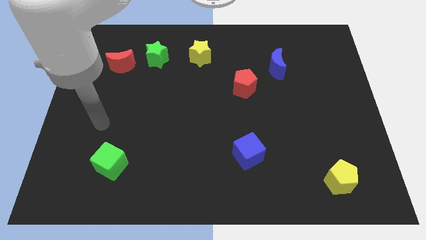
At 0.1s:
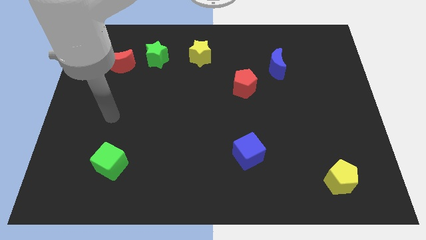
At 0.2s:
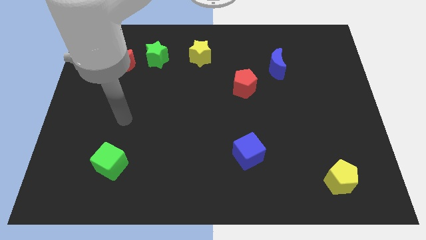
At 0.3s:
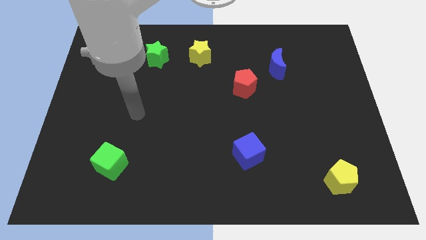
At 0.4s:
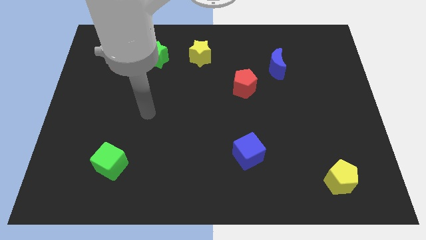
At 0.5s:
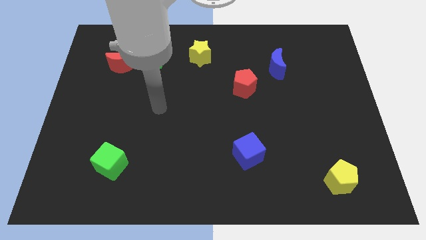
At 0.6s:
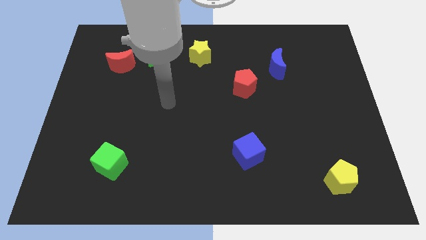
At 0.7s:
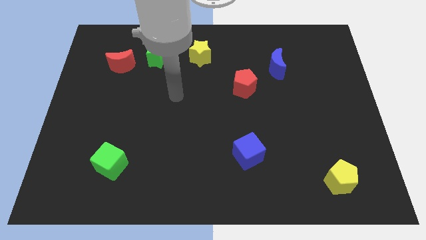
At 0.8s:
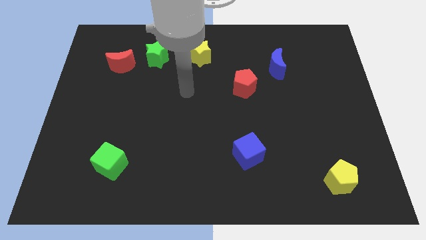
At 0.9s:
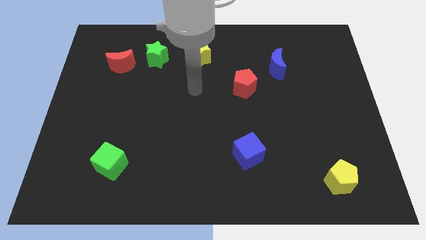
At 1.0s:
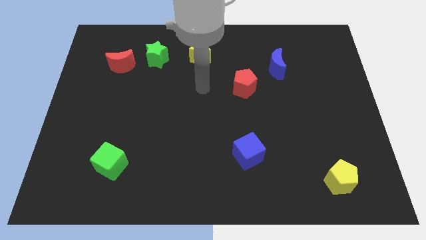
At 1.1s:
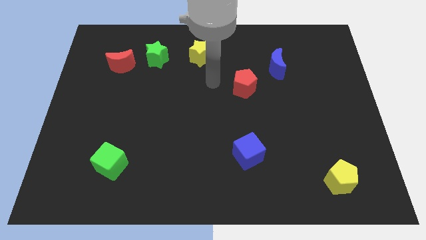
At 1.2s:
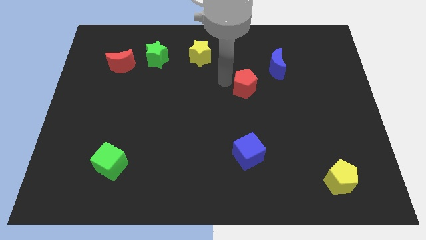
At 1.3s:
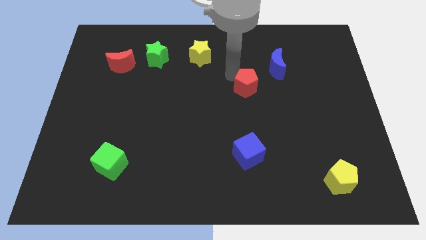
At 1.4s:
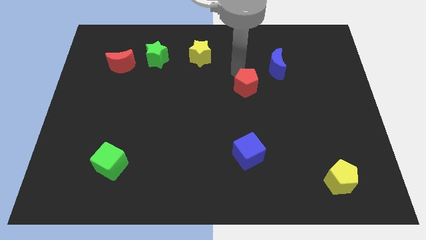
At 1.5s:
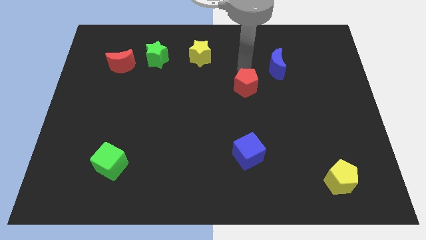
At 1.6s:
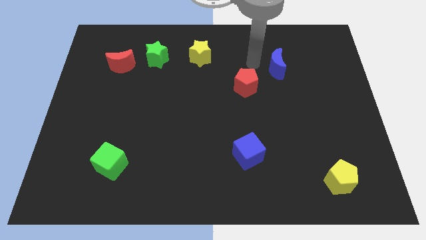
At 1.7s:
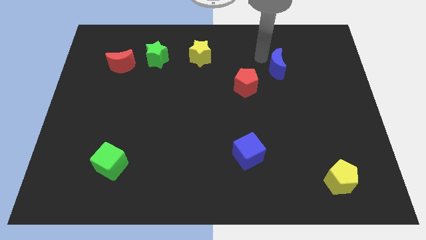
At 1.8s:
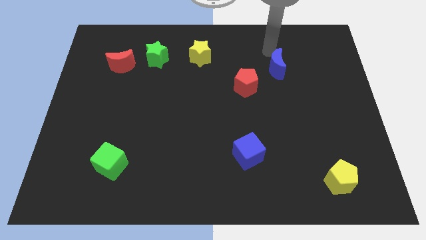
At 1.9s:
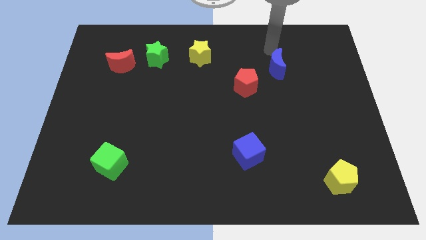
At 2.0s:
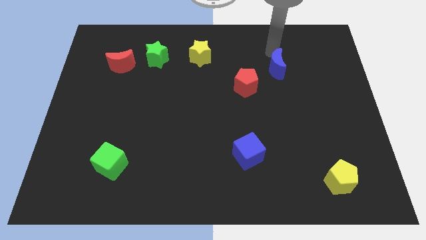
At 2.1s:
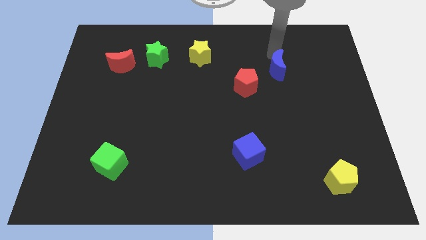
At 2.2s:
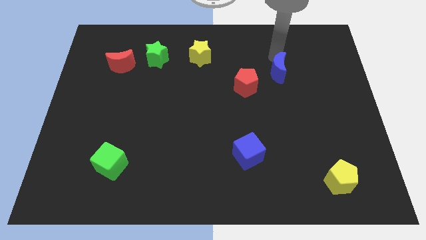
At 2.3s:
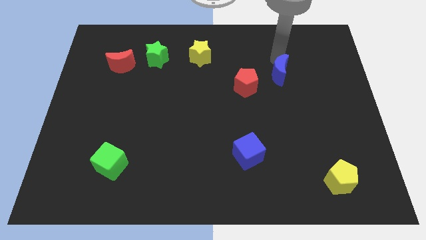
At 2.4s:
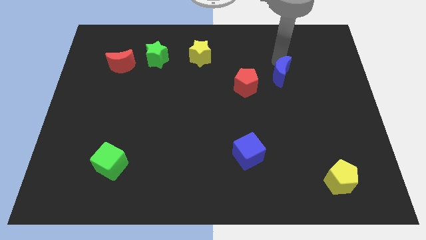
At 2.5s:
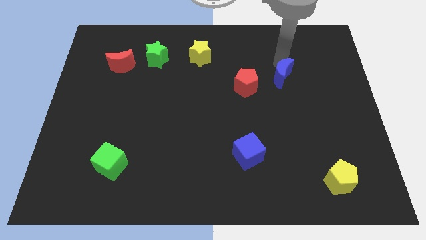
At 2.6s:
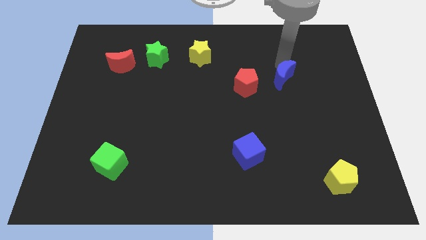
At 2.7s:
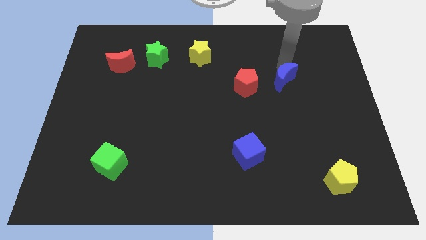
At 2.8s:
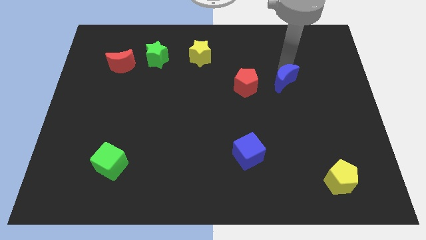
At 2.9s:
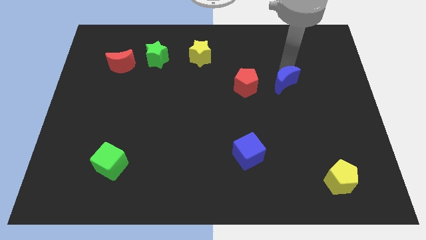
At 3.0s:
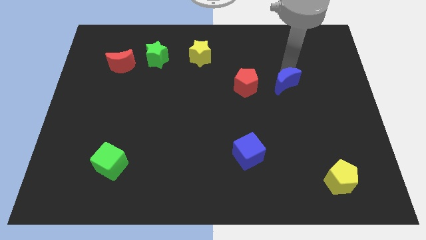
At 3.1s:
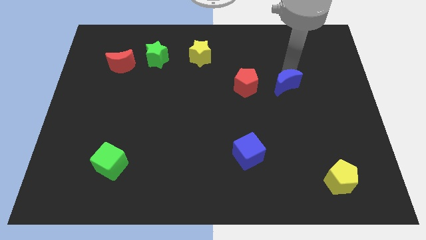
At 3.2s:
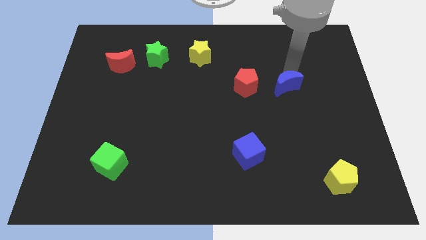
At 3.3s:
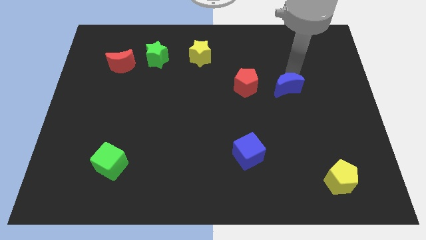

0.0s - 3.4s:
move the blue moon down a bit

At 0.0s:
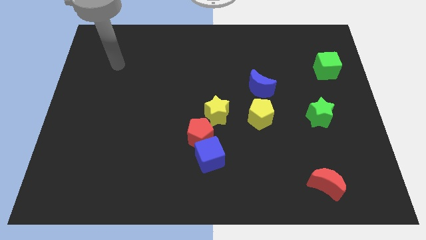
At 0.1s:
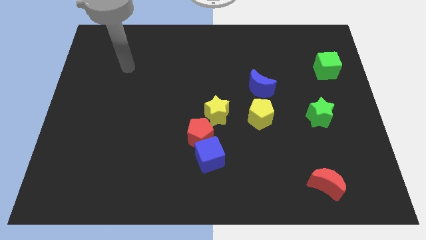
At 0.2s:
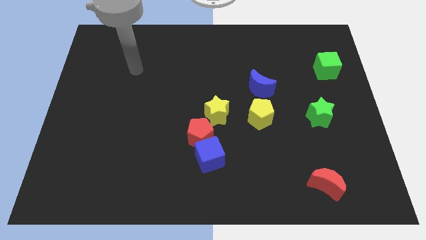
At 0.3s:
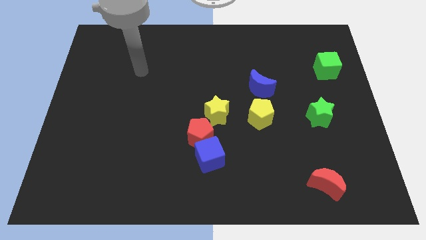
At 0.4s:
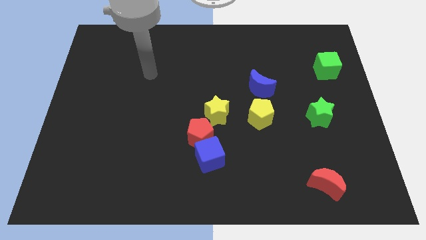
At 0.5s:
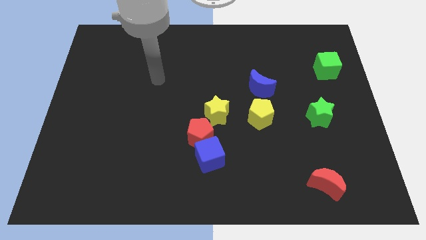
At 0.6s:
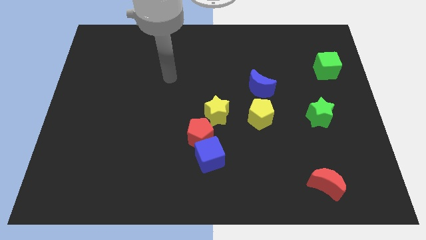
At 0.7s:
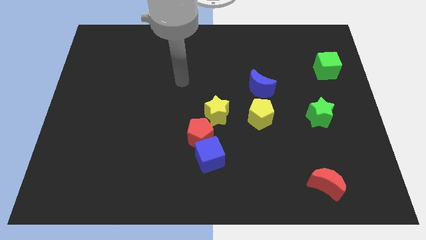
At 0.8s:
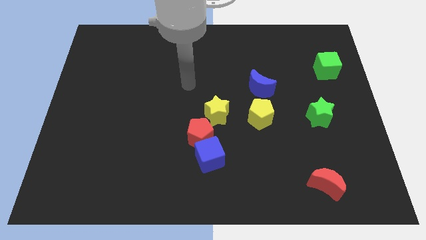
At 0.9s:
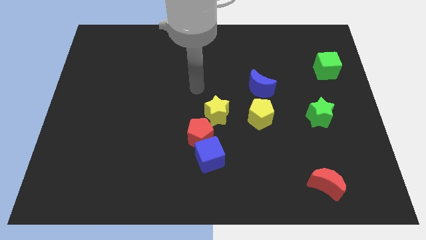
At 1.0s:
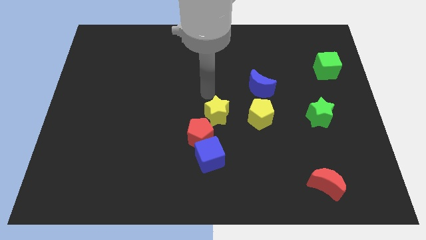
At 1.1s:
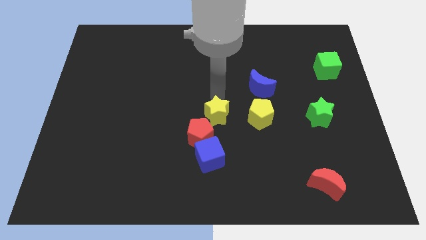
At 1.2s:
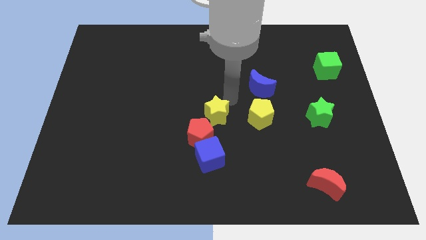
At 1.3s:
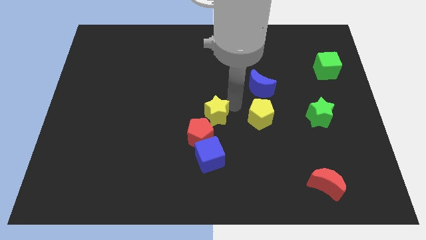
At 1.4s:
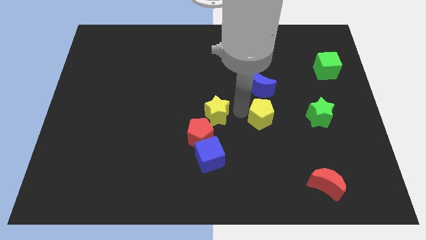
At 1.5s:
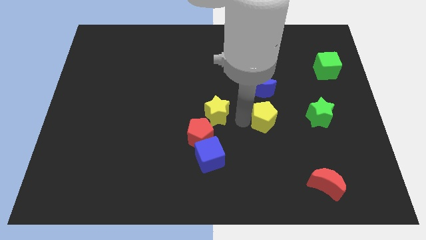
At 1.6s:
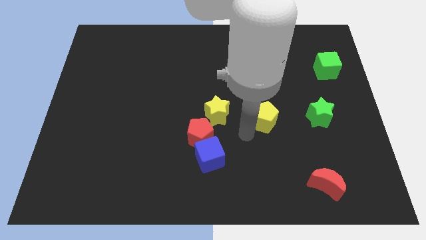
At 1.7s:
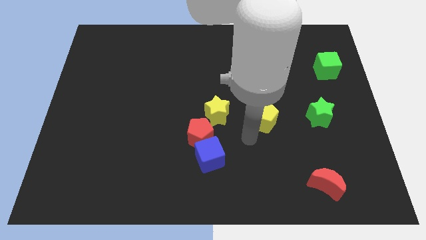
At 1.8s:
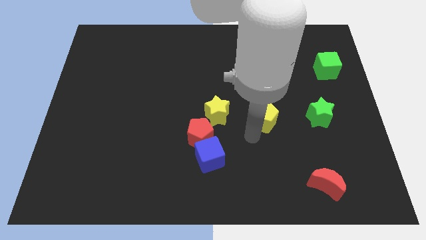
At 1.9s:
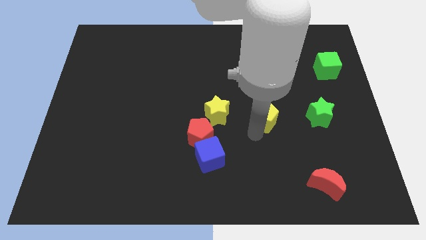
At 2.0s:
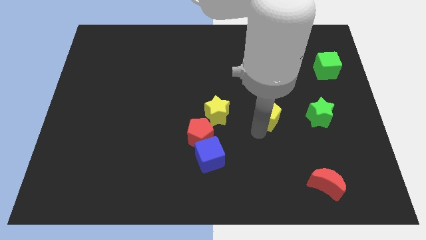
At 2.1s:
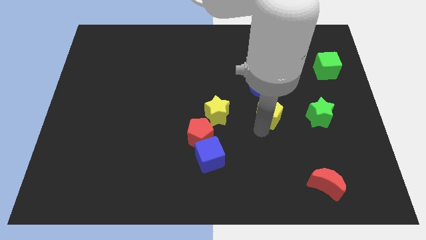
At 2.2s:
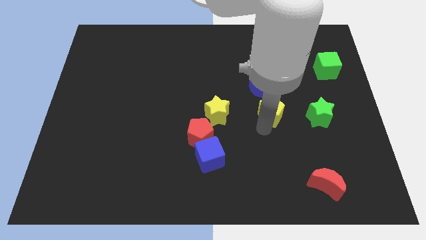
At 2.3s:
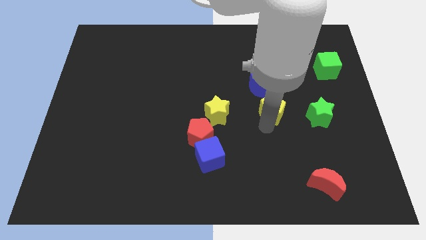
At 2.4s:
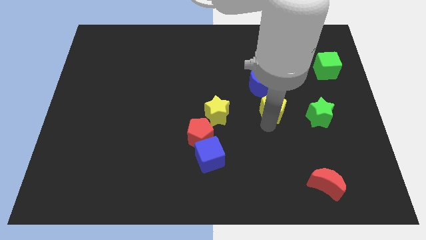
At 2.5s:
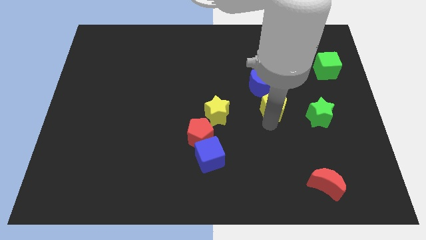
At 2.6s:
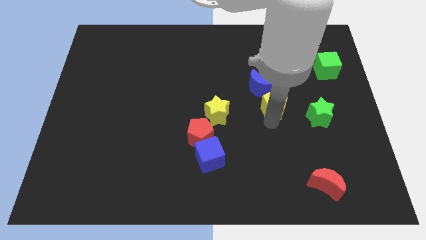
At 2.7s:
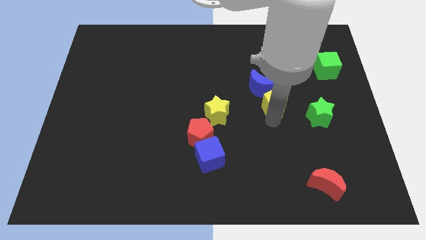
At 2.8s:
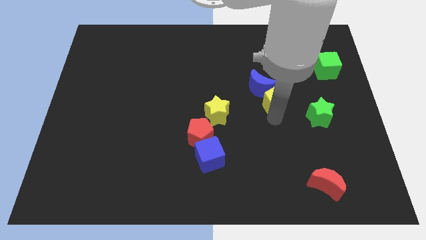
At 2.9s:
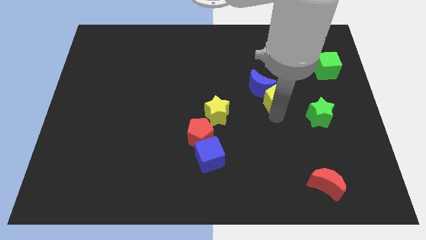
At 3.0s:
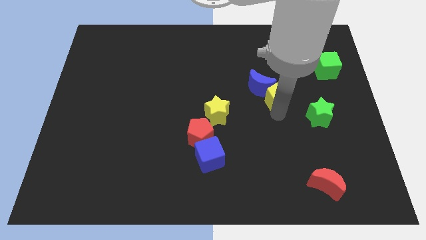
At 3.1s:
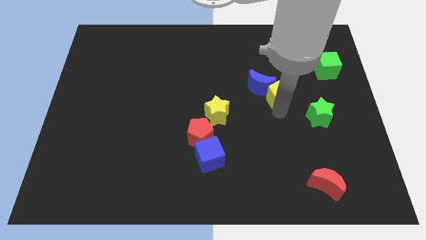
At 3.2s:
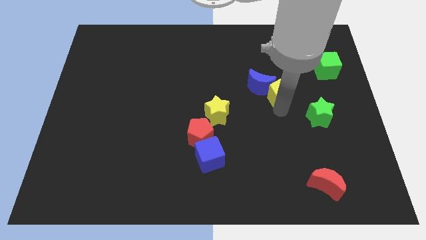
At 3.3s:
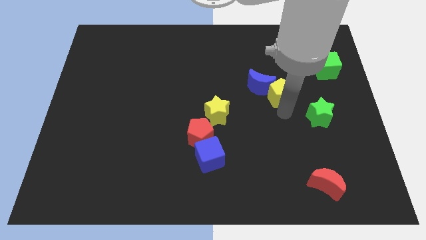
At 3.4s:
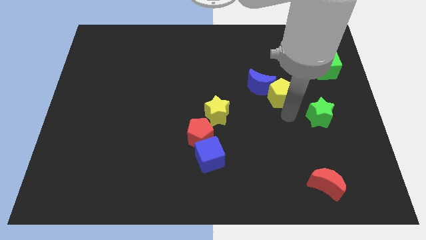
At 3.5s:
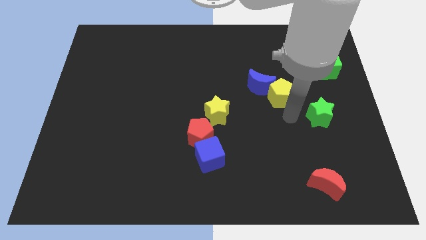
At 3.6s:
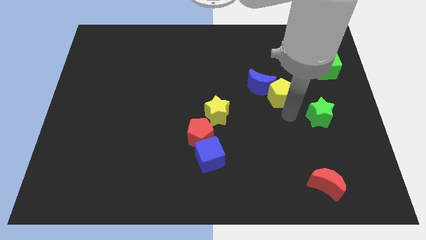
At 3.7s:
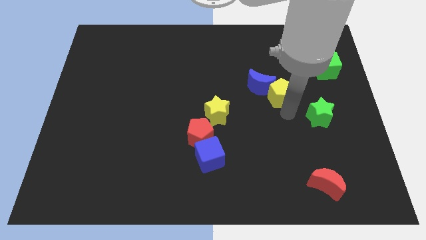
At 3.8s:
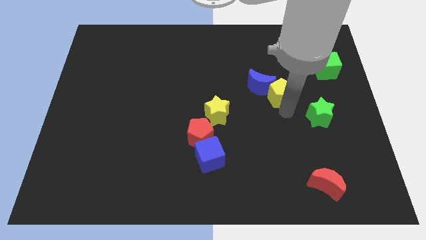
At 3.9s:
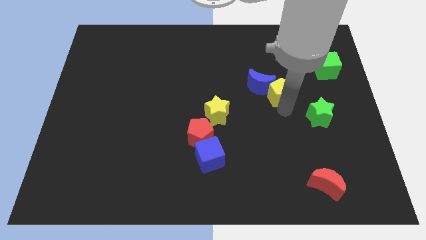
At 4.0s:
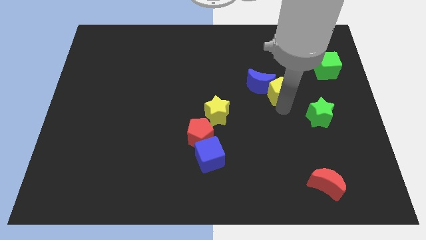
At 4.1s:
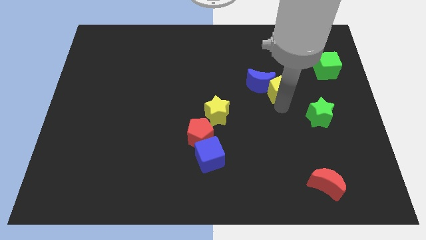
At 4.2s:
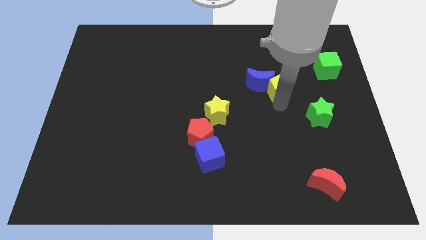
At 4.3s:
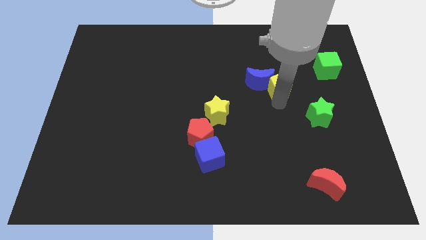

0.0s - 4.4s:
move the yellow pentagon up a little

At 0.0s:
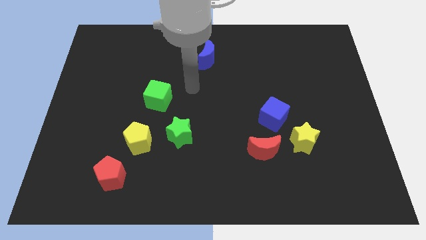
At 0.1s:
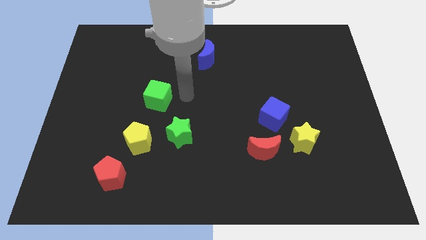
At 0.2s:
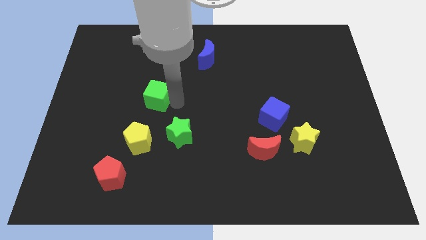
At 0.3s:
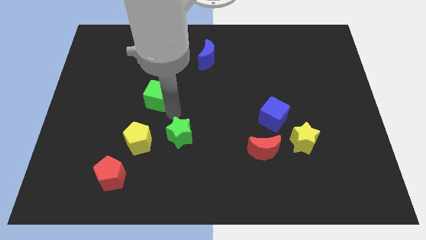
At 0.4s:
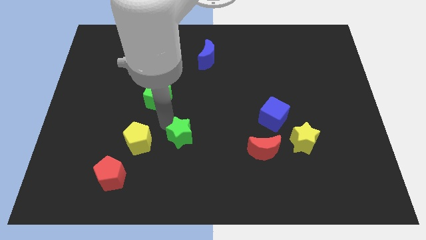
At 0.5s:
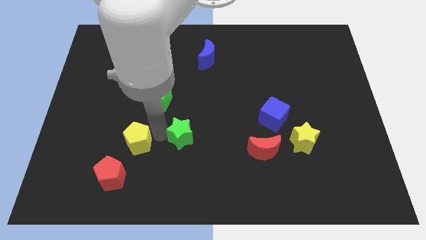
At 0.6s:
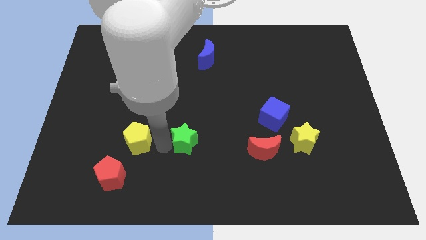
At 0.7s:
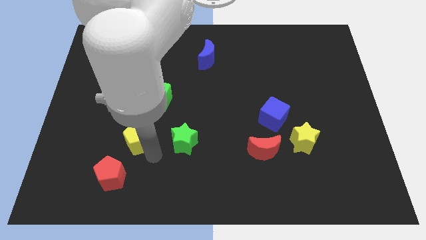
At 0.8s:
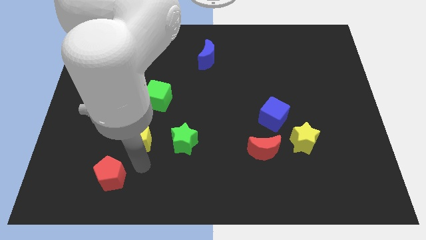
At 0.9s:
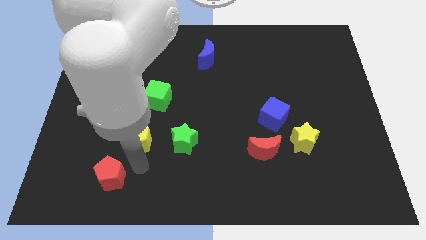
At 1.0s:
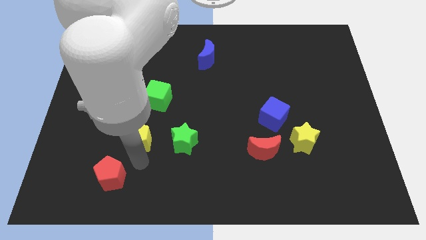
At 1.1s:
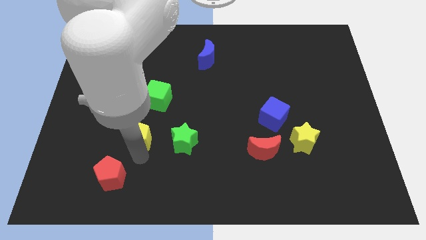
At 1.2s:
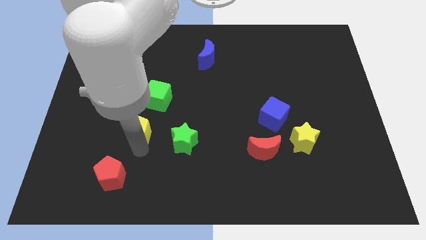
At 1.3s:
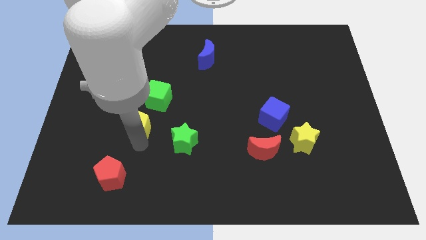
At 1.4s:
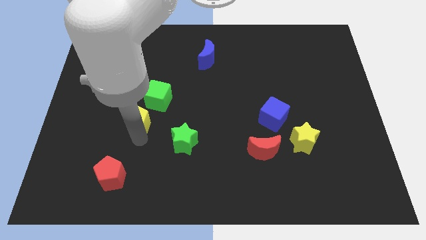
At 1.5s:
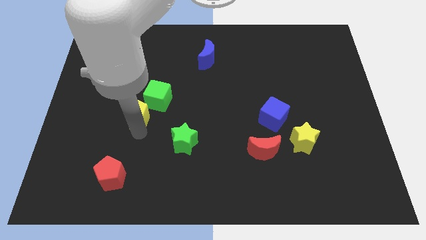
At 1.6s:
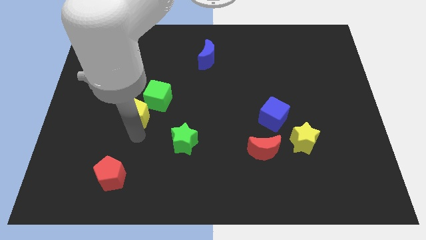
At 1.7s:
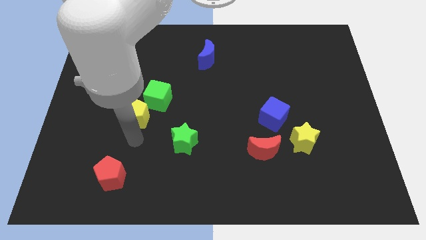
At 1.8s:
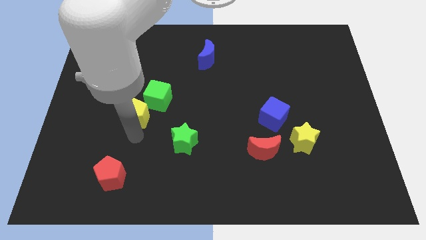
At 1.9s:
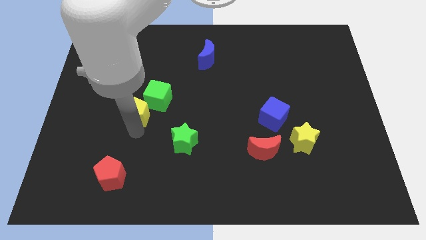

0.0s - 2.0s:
push the yellow pentagon slightly up
